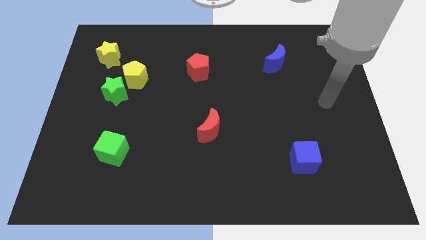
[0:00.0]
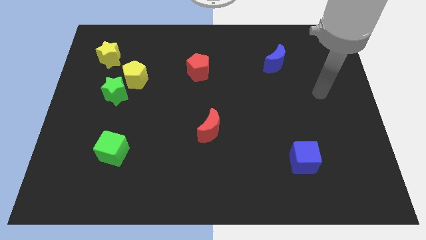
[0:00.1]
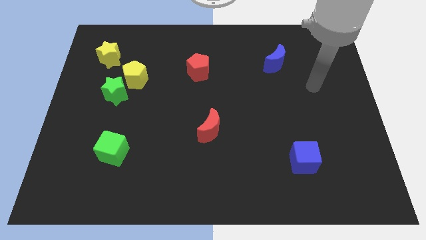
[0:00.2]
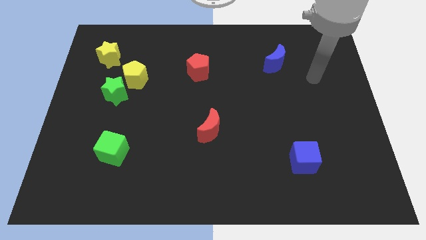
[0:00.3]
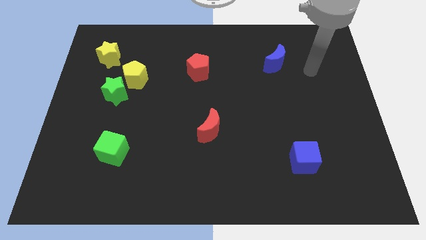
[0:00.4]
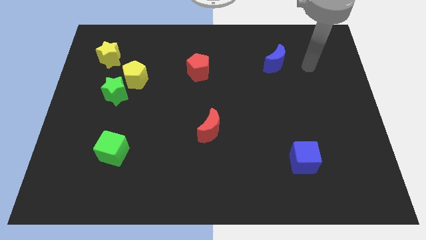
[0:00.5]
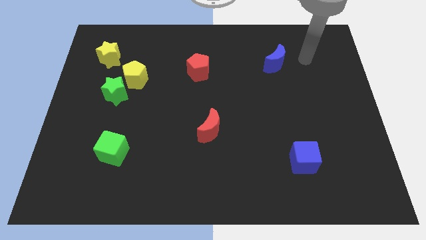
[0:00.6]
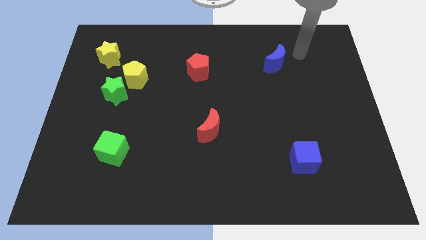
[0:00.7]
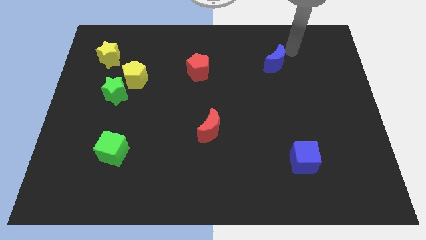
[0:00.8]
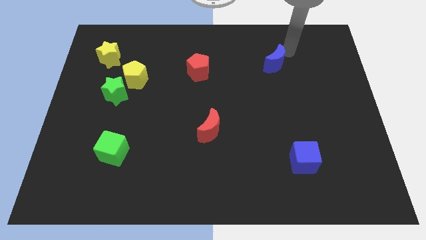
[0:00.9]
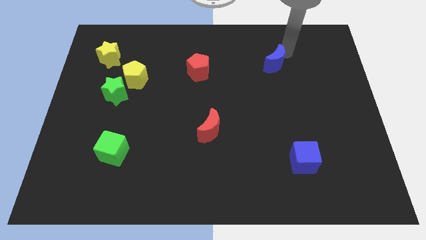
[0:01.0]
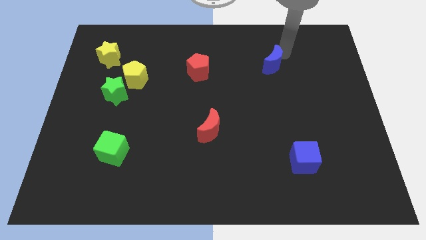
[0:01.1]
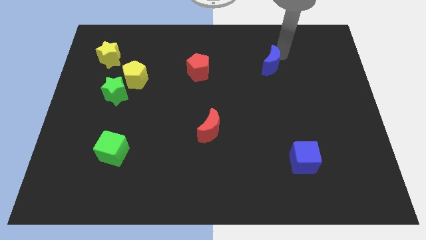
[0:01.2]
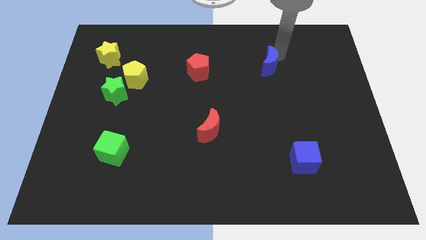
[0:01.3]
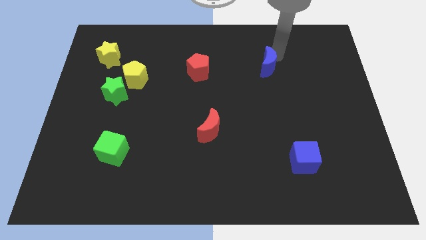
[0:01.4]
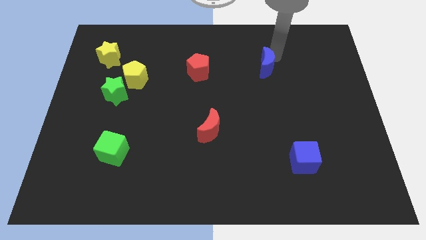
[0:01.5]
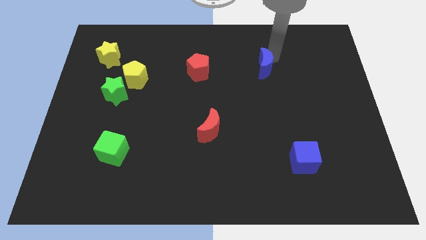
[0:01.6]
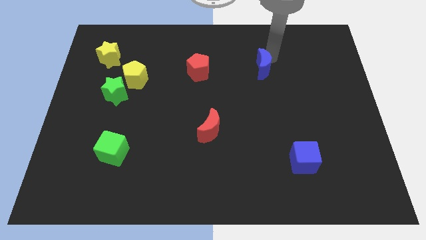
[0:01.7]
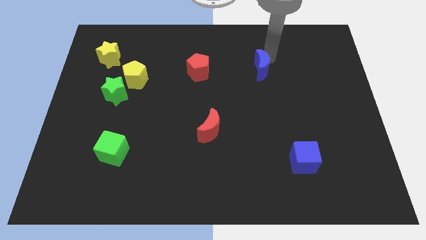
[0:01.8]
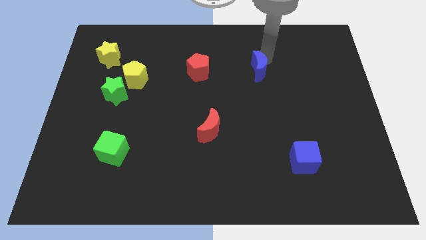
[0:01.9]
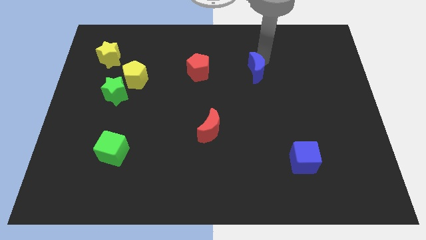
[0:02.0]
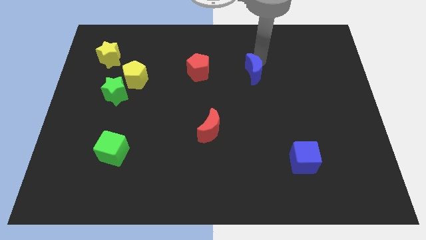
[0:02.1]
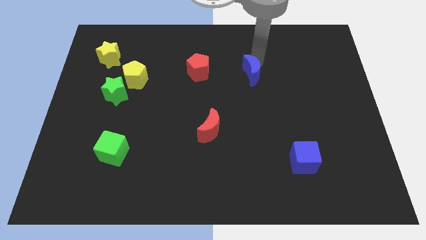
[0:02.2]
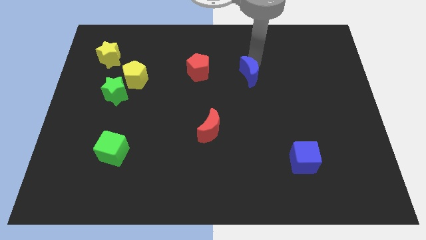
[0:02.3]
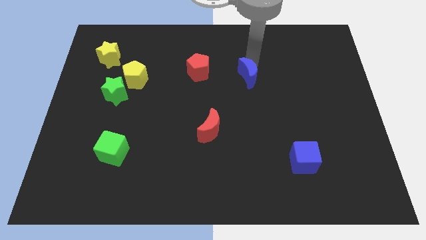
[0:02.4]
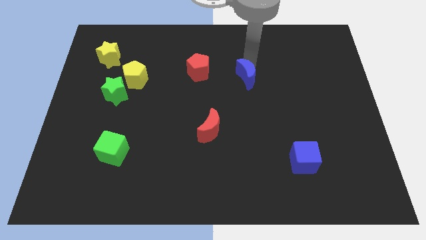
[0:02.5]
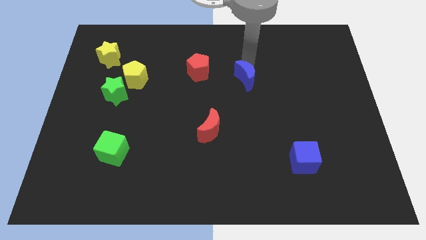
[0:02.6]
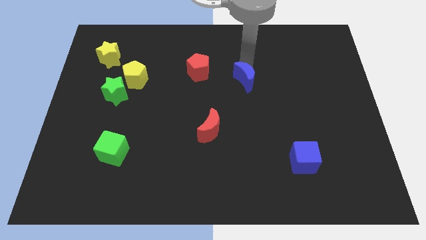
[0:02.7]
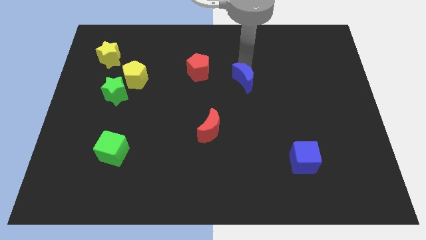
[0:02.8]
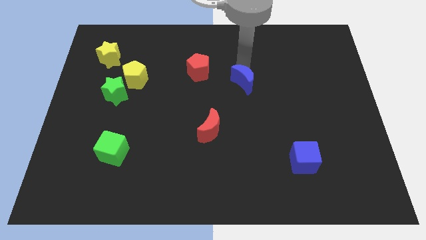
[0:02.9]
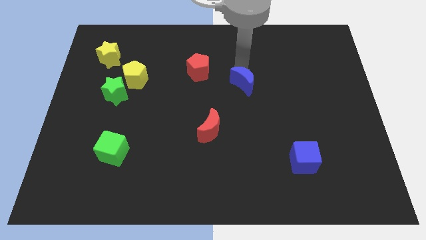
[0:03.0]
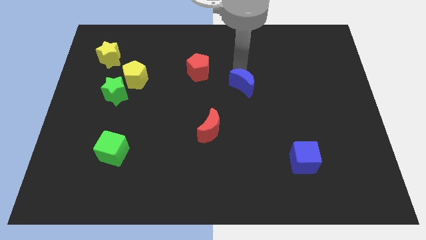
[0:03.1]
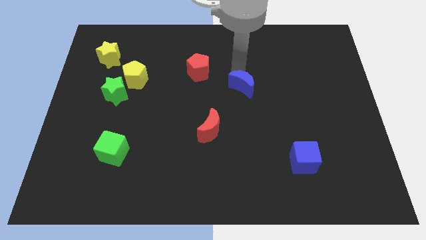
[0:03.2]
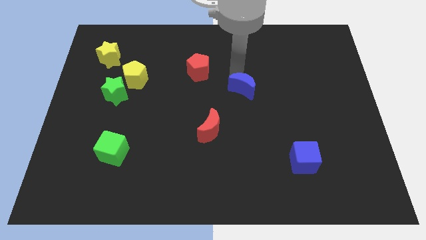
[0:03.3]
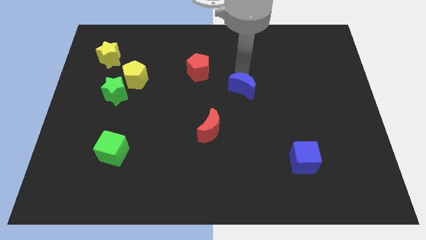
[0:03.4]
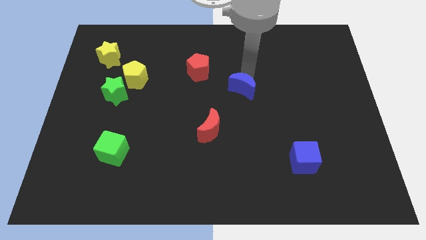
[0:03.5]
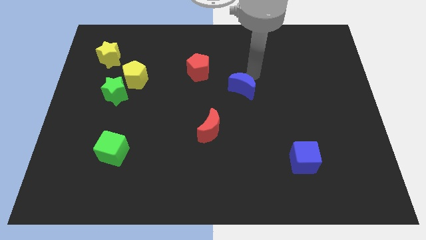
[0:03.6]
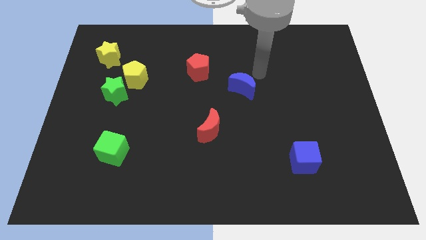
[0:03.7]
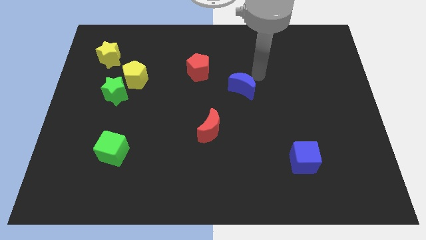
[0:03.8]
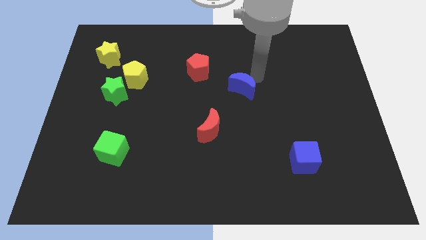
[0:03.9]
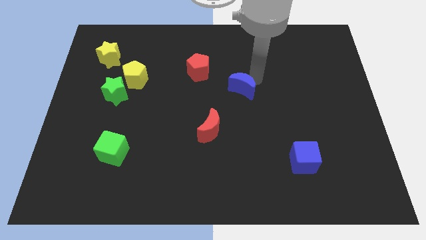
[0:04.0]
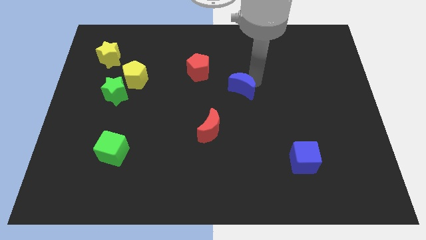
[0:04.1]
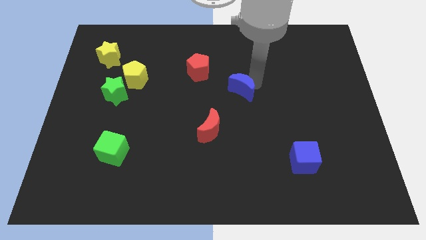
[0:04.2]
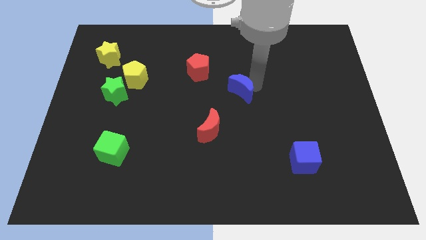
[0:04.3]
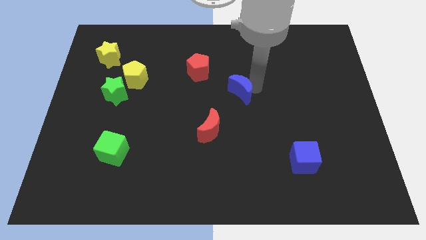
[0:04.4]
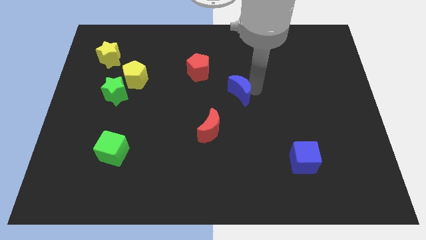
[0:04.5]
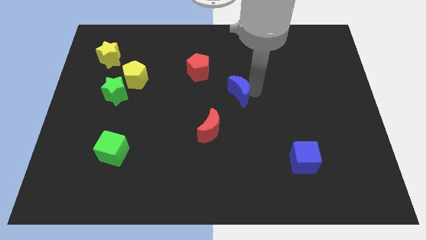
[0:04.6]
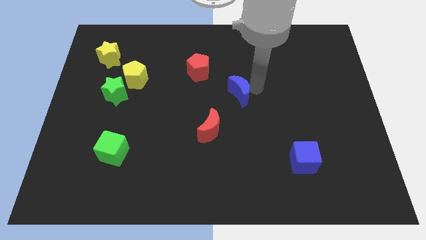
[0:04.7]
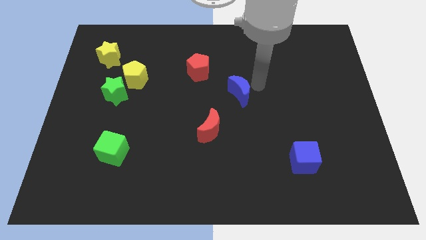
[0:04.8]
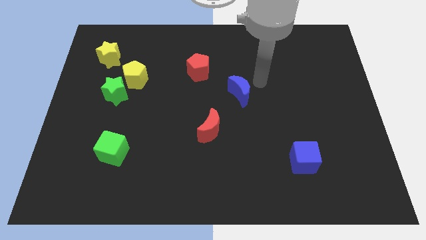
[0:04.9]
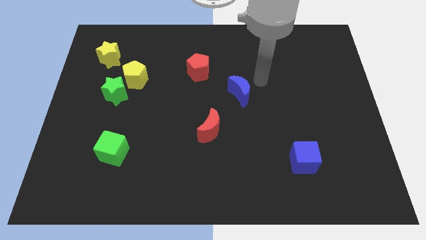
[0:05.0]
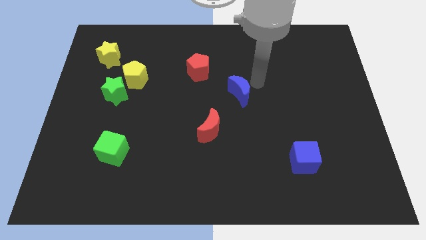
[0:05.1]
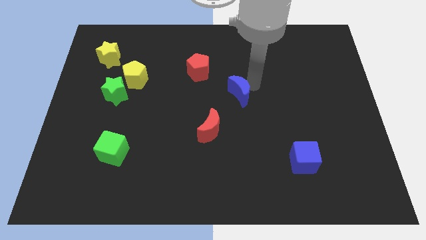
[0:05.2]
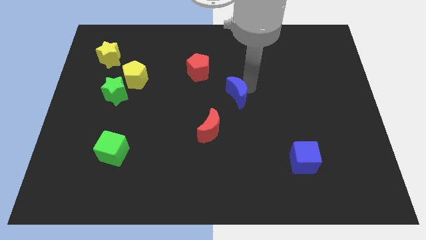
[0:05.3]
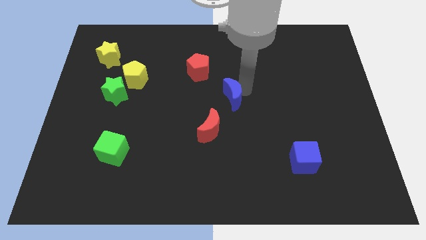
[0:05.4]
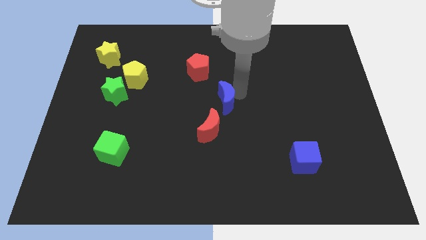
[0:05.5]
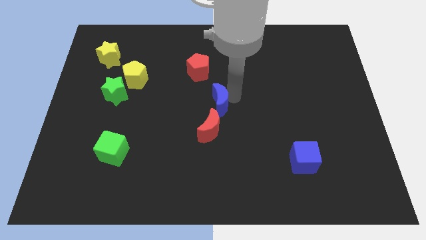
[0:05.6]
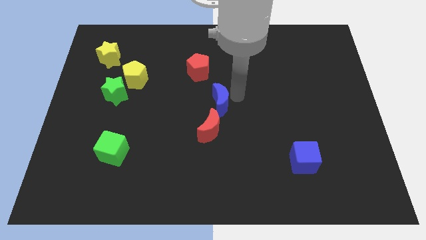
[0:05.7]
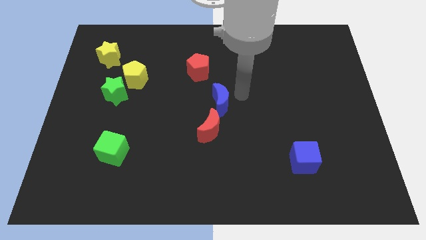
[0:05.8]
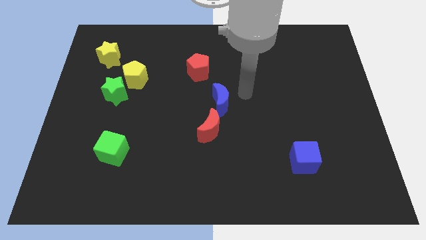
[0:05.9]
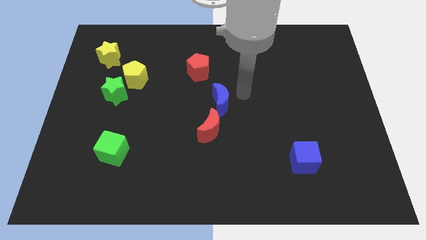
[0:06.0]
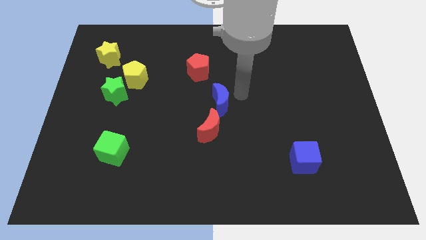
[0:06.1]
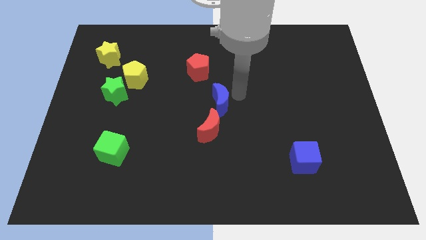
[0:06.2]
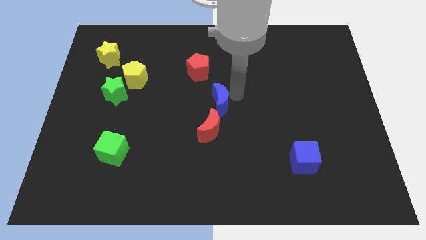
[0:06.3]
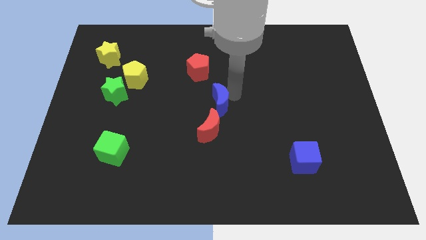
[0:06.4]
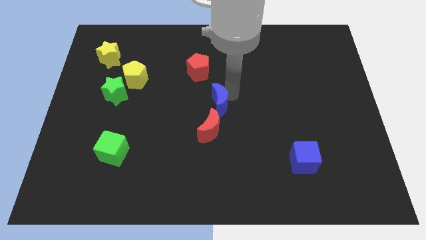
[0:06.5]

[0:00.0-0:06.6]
slide the blue moon down and to the left

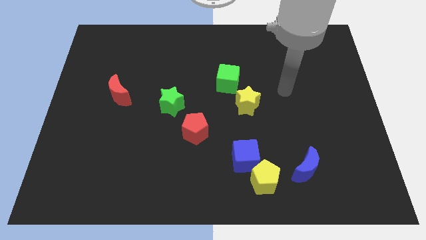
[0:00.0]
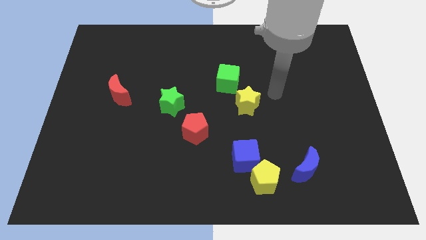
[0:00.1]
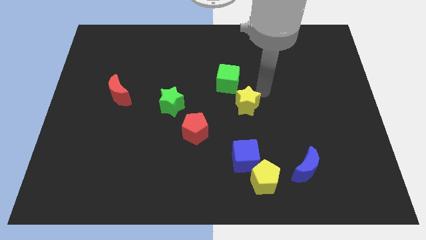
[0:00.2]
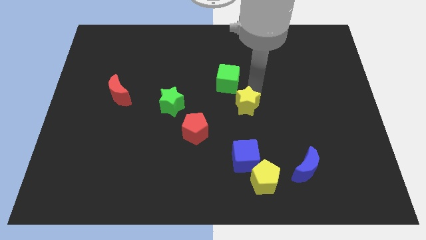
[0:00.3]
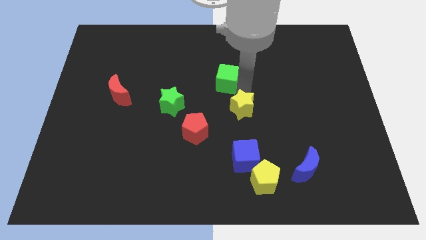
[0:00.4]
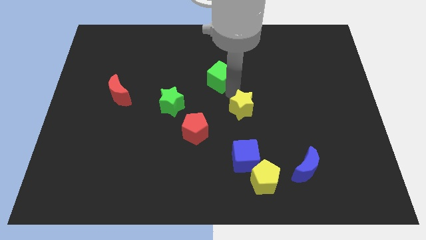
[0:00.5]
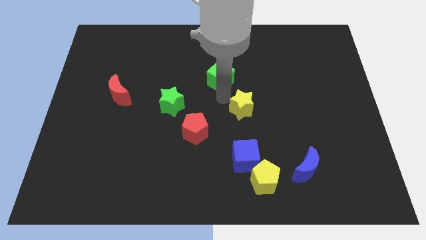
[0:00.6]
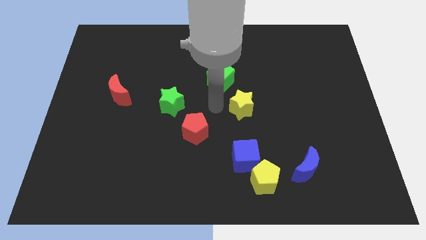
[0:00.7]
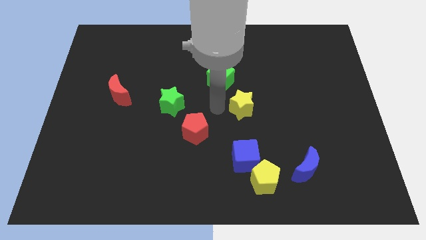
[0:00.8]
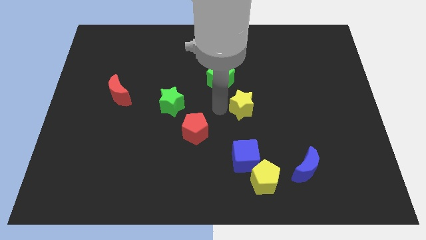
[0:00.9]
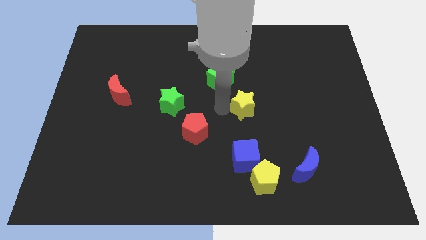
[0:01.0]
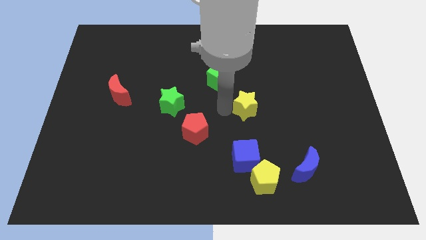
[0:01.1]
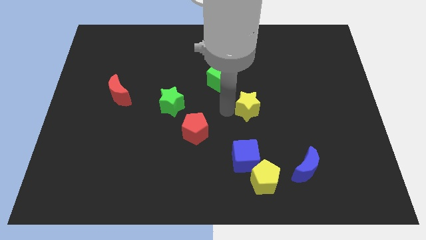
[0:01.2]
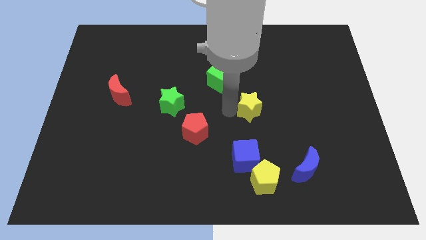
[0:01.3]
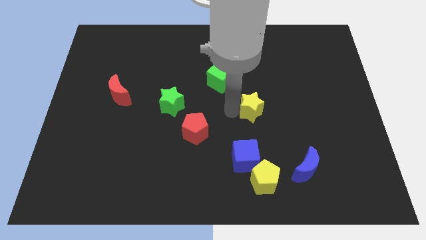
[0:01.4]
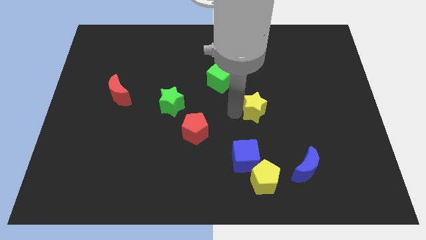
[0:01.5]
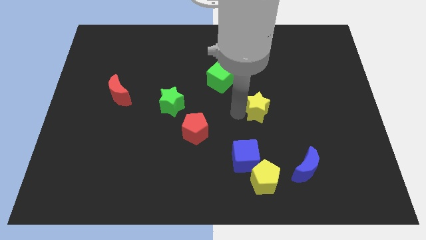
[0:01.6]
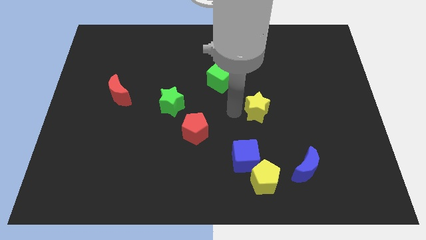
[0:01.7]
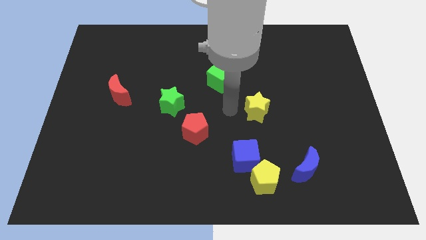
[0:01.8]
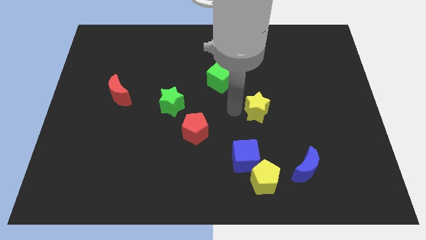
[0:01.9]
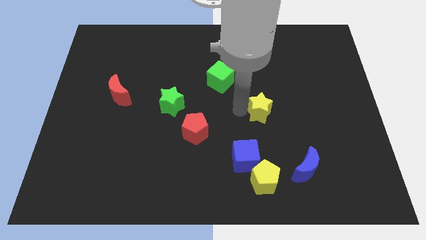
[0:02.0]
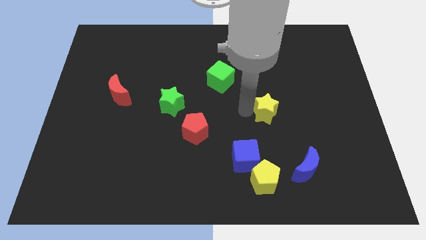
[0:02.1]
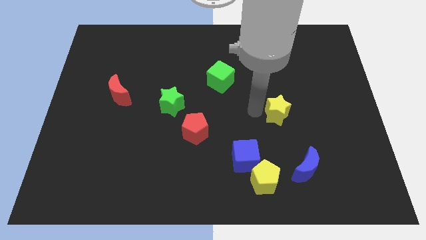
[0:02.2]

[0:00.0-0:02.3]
slightly slide the yellow star to the right
